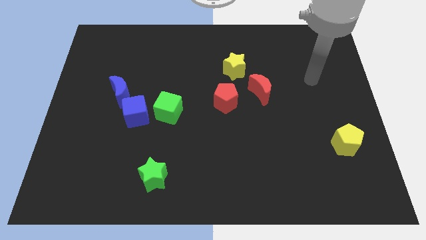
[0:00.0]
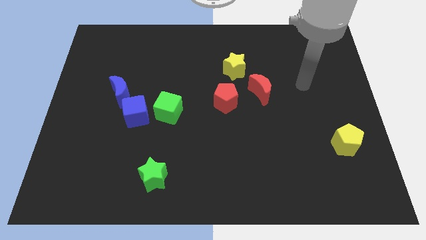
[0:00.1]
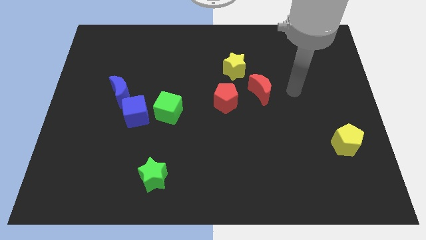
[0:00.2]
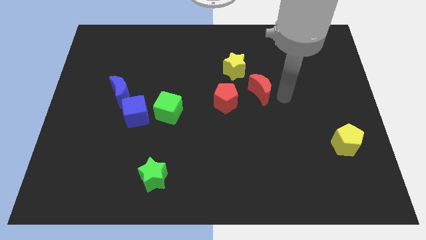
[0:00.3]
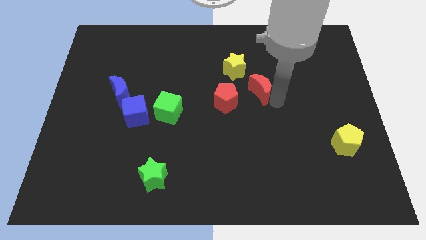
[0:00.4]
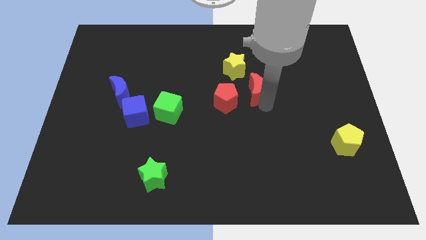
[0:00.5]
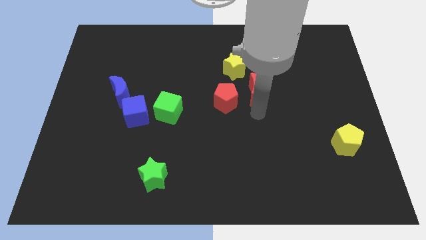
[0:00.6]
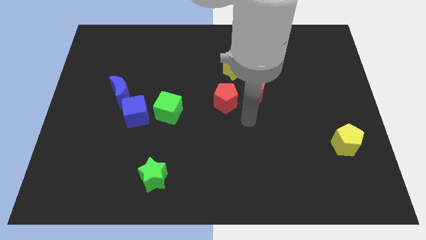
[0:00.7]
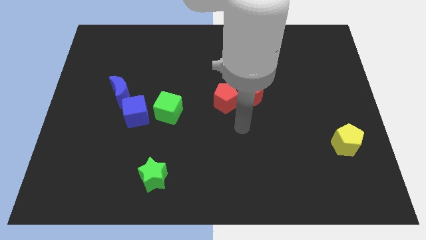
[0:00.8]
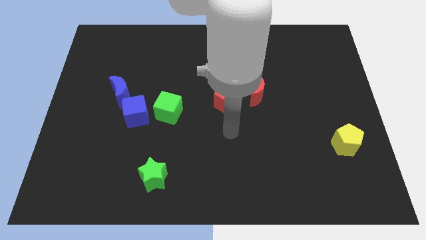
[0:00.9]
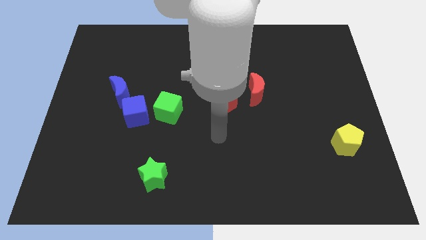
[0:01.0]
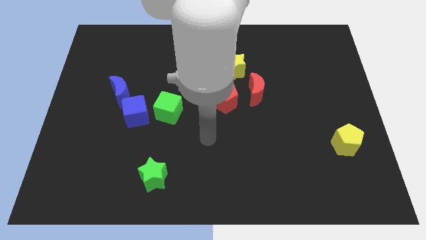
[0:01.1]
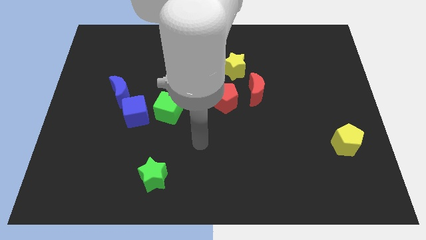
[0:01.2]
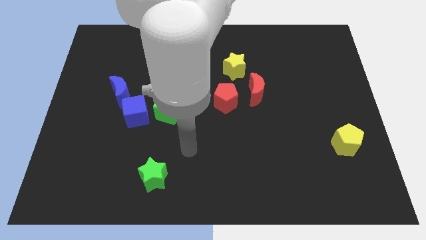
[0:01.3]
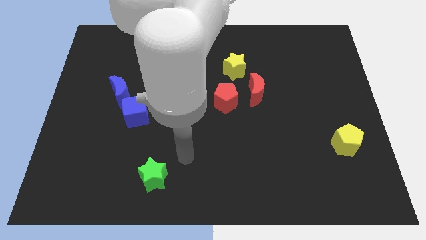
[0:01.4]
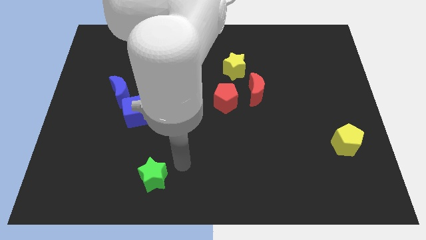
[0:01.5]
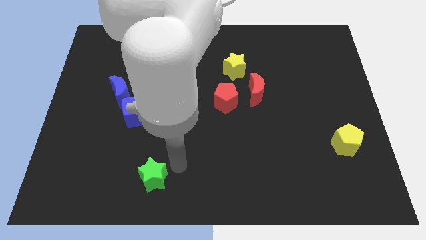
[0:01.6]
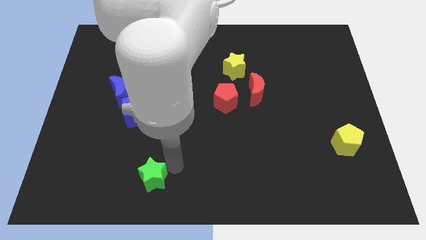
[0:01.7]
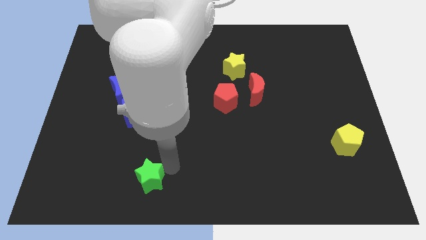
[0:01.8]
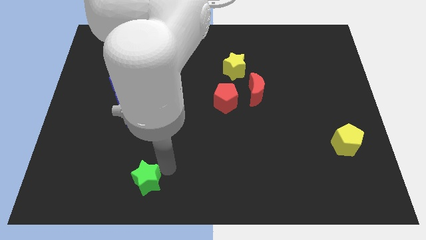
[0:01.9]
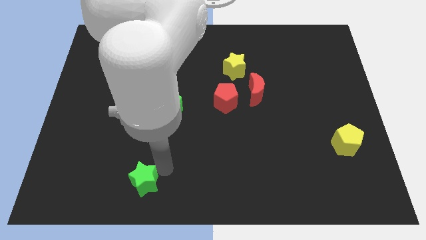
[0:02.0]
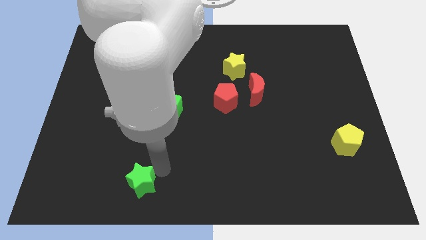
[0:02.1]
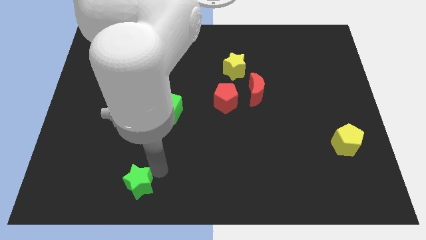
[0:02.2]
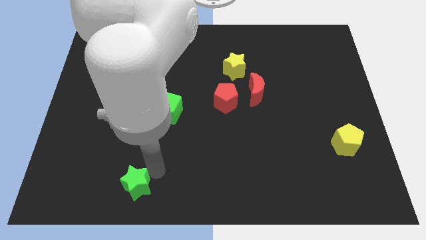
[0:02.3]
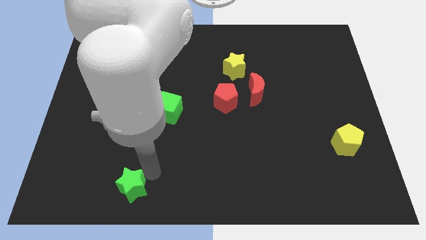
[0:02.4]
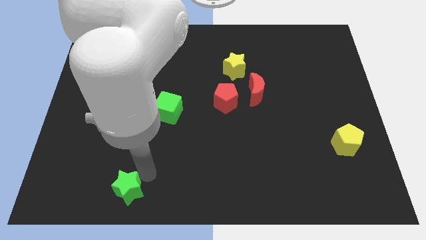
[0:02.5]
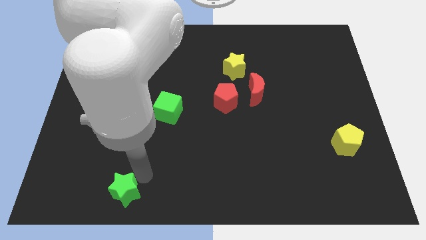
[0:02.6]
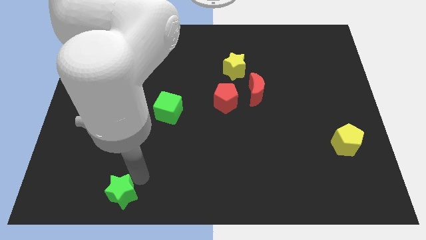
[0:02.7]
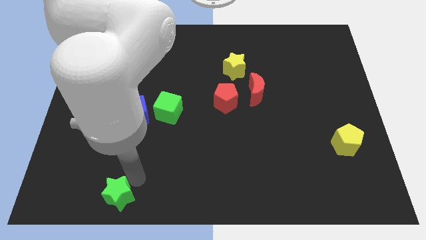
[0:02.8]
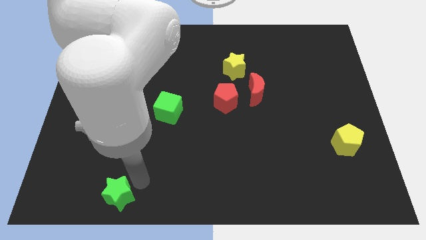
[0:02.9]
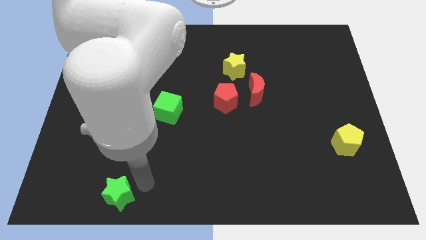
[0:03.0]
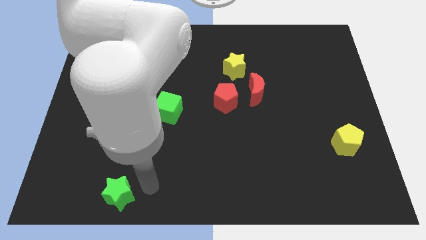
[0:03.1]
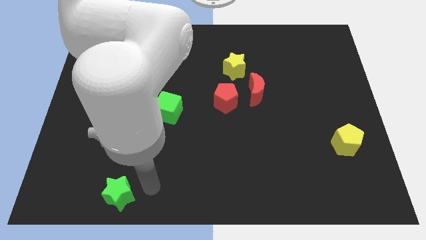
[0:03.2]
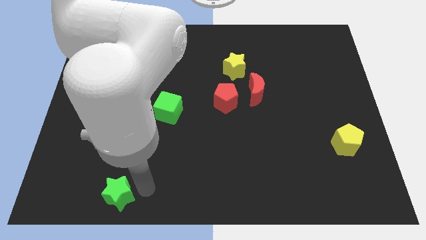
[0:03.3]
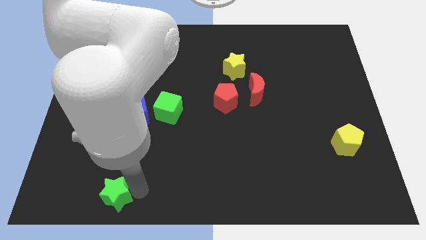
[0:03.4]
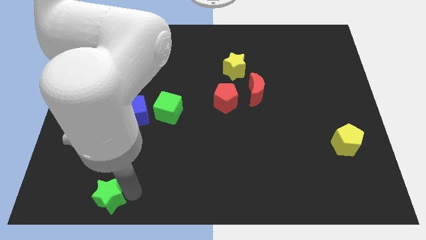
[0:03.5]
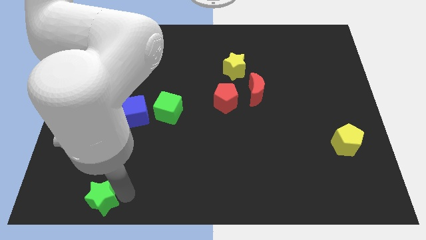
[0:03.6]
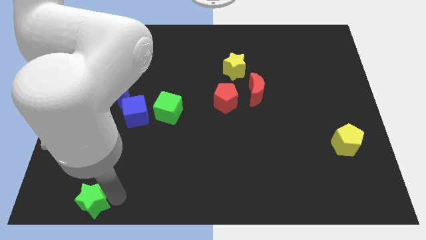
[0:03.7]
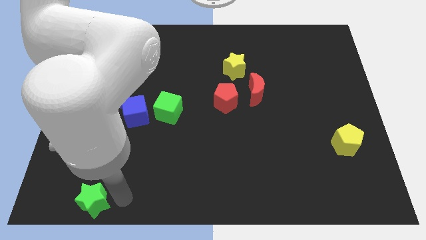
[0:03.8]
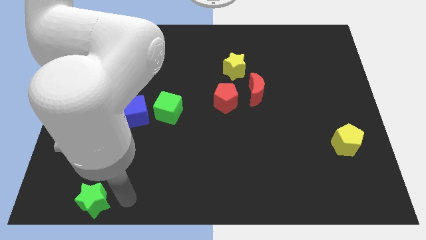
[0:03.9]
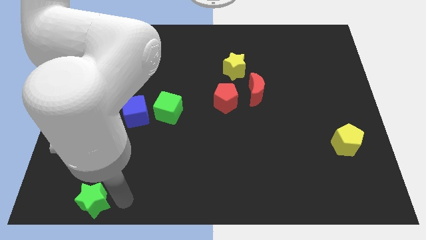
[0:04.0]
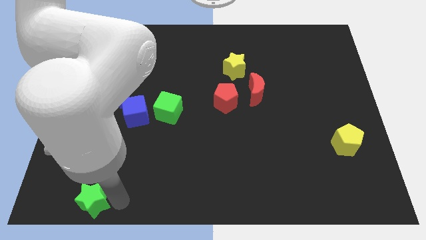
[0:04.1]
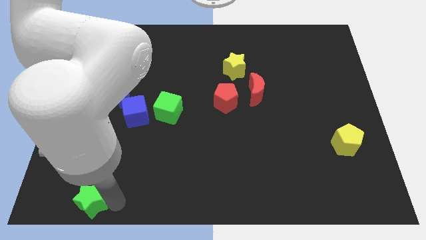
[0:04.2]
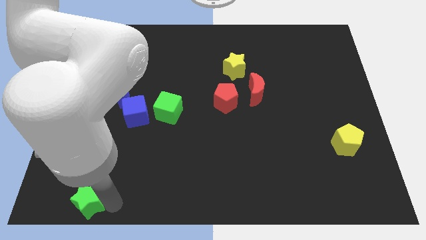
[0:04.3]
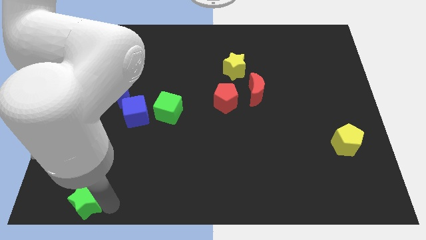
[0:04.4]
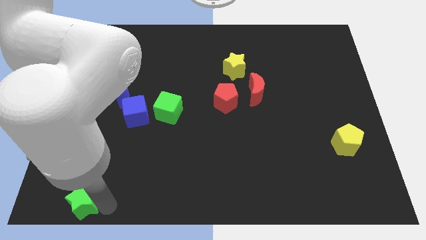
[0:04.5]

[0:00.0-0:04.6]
slide the green star to the bottom left corner

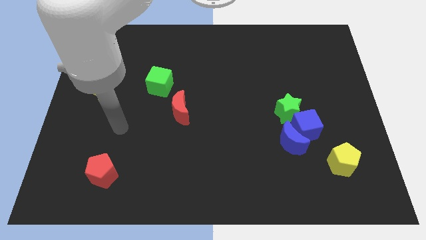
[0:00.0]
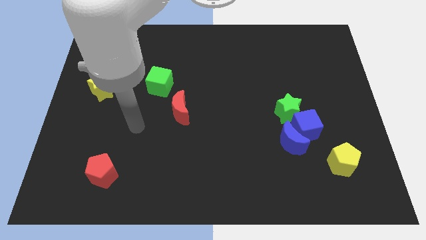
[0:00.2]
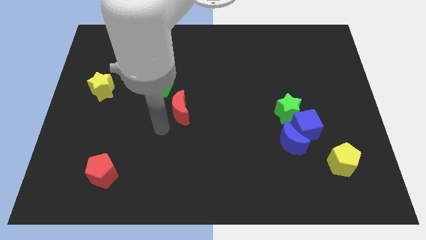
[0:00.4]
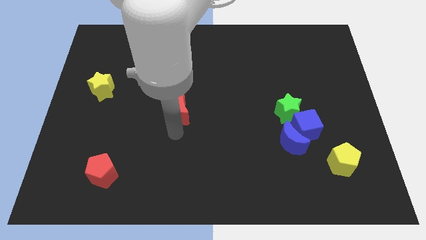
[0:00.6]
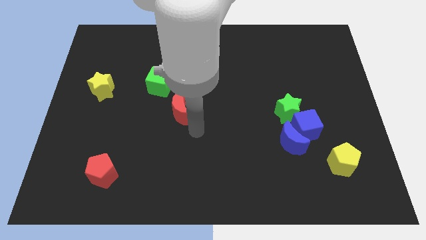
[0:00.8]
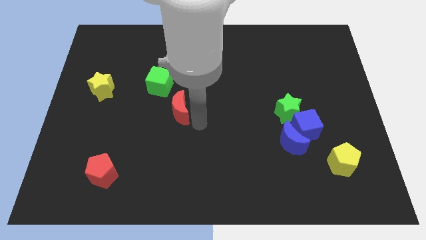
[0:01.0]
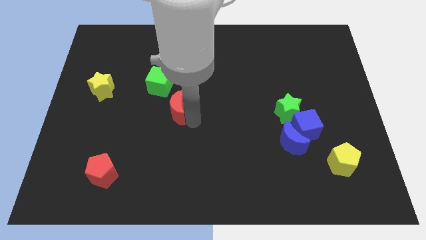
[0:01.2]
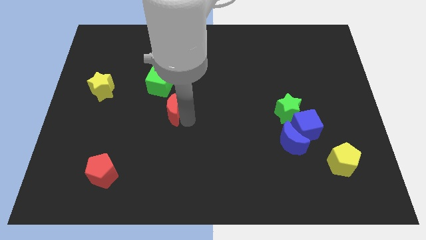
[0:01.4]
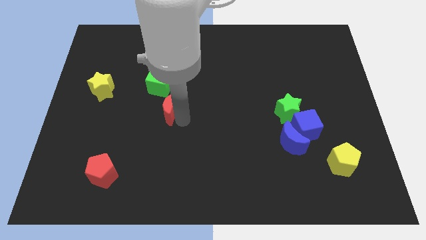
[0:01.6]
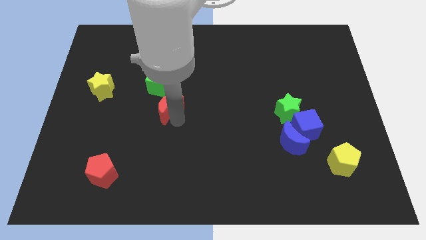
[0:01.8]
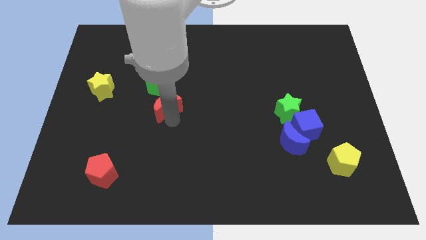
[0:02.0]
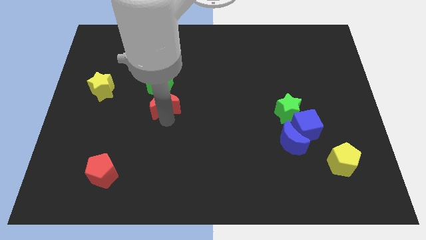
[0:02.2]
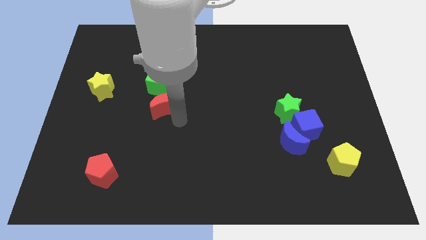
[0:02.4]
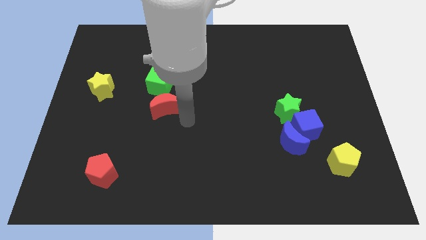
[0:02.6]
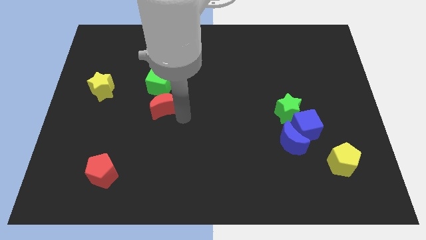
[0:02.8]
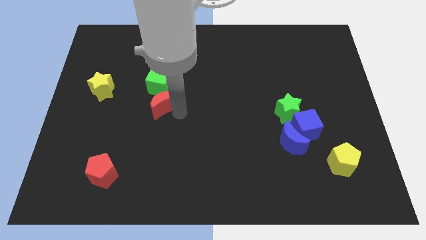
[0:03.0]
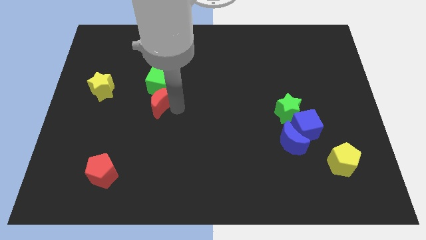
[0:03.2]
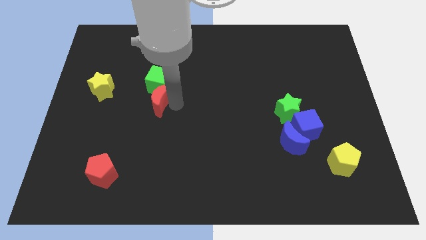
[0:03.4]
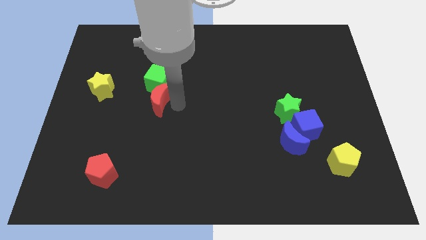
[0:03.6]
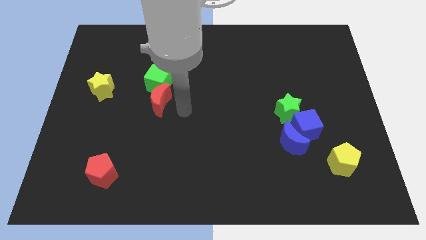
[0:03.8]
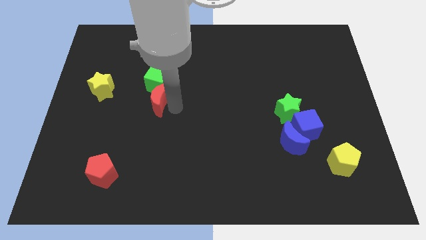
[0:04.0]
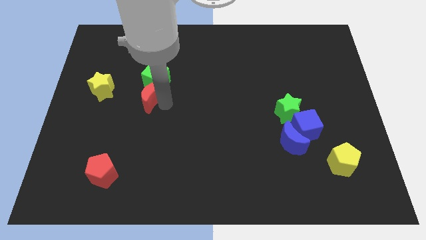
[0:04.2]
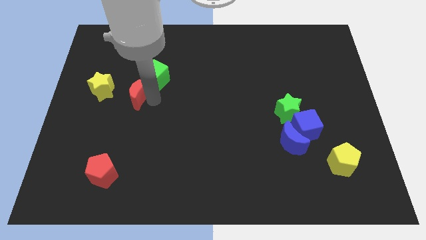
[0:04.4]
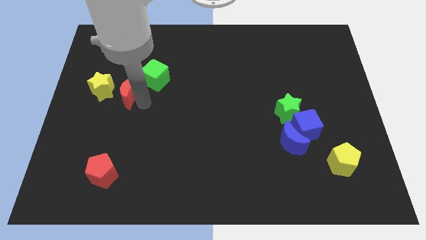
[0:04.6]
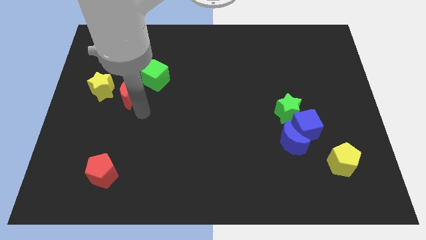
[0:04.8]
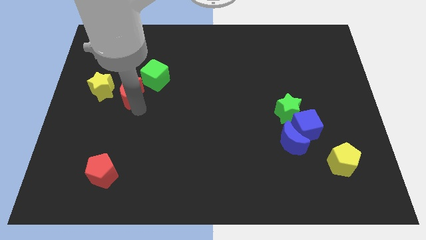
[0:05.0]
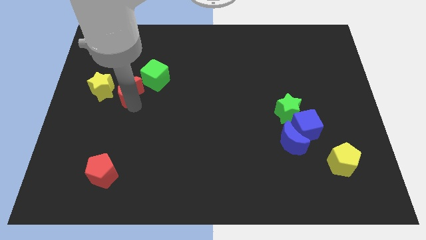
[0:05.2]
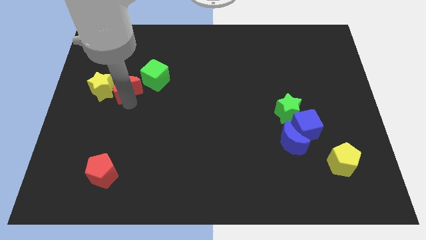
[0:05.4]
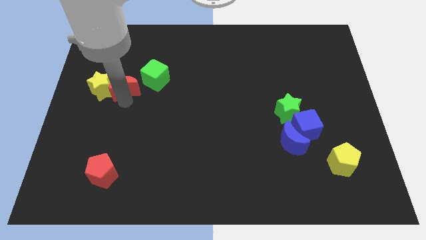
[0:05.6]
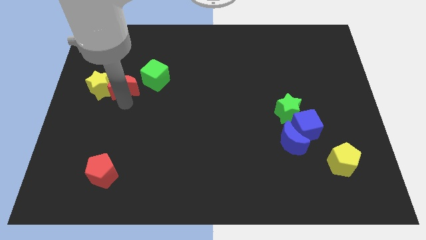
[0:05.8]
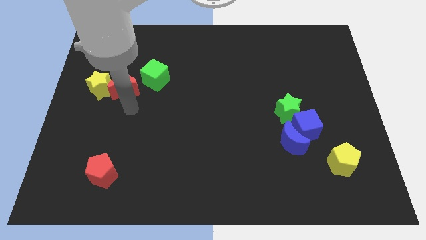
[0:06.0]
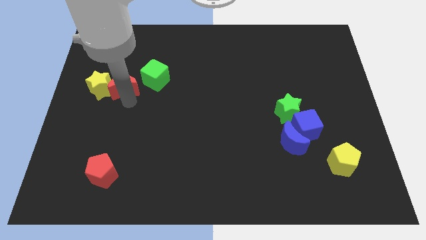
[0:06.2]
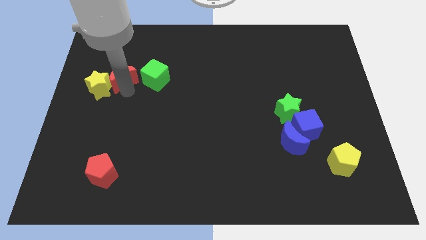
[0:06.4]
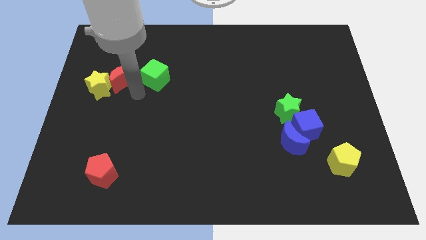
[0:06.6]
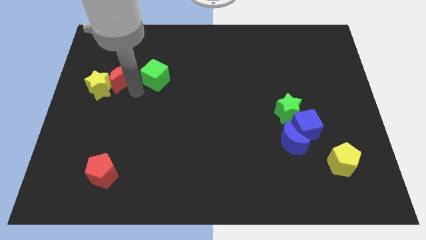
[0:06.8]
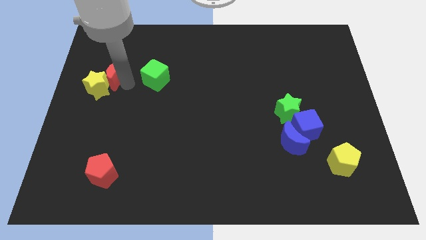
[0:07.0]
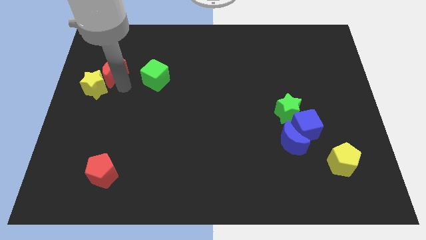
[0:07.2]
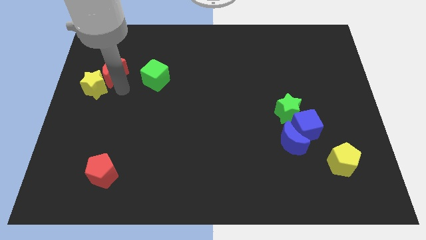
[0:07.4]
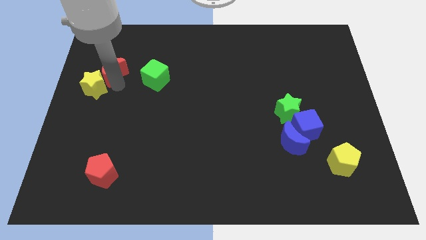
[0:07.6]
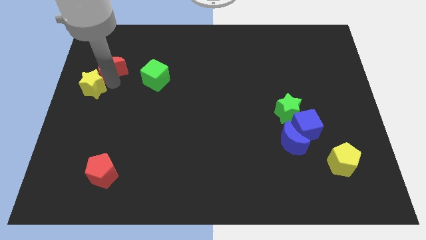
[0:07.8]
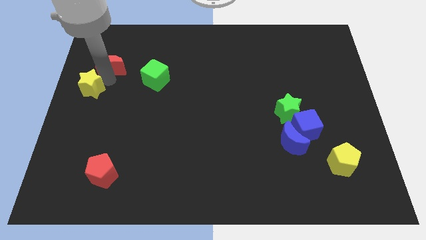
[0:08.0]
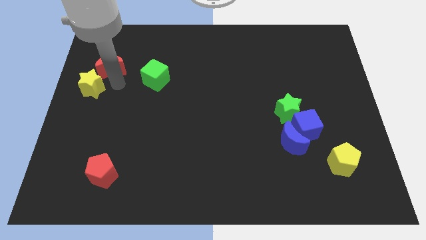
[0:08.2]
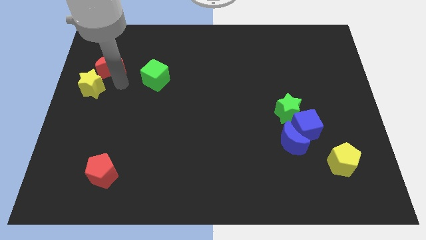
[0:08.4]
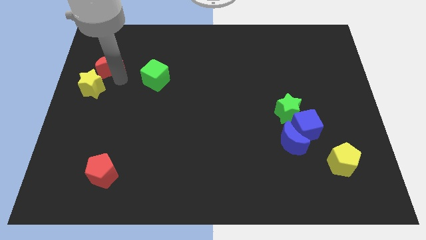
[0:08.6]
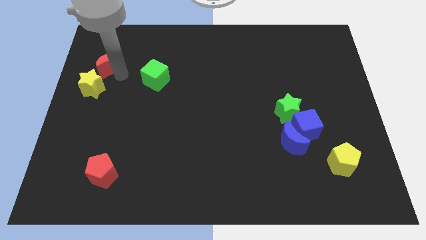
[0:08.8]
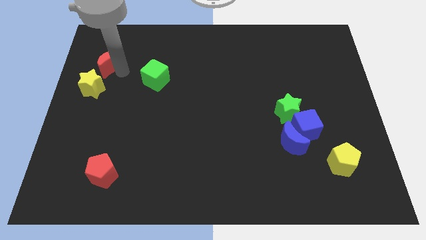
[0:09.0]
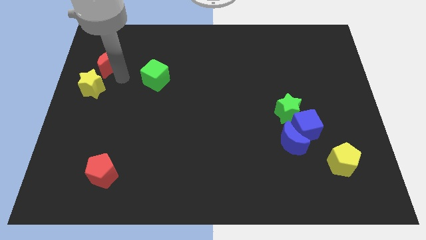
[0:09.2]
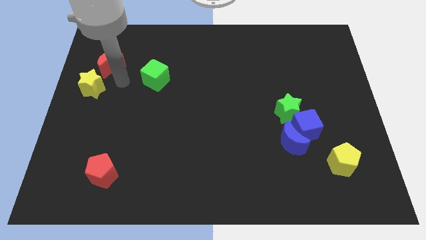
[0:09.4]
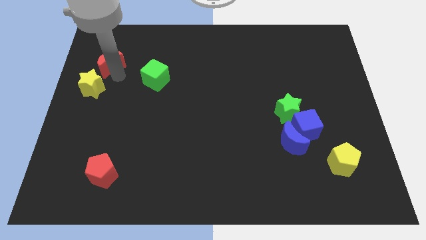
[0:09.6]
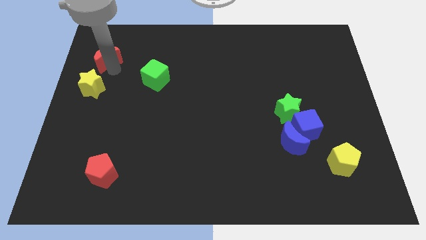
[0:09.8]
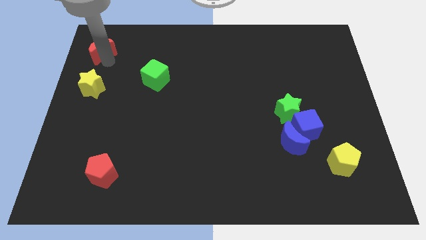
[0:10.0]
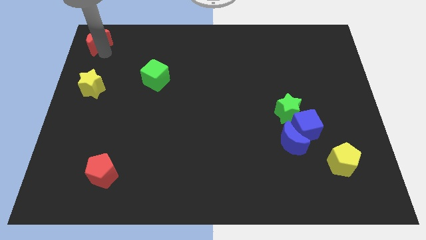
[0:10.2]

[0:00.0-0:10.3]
put the red moon to the top left of the board
